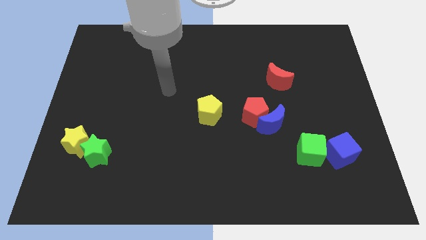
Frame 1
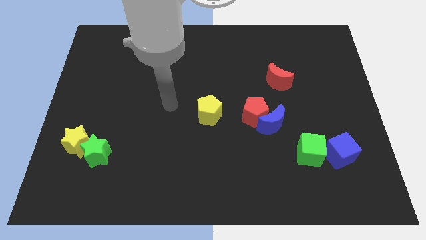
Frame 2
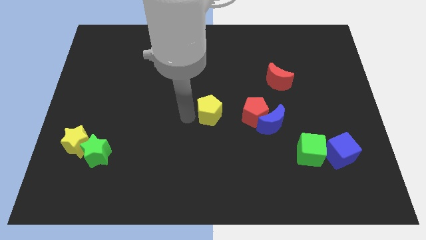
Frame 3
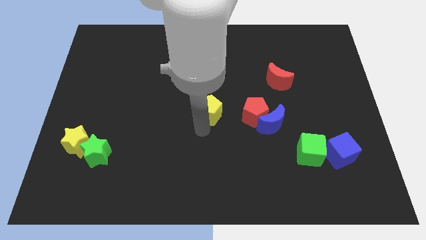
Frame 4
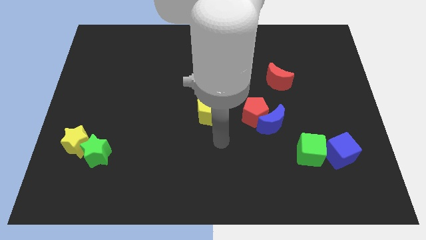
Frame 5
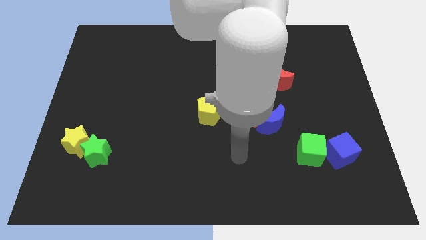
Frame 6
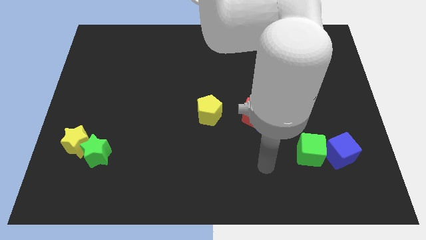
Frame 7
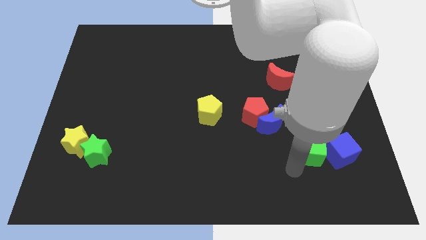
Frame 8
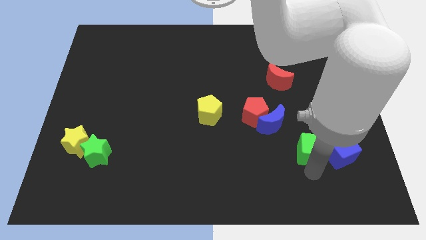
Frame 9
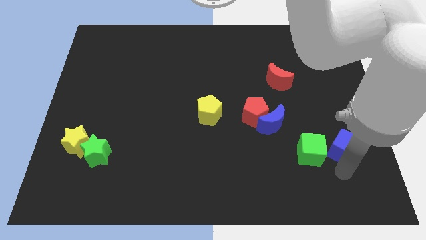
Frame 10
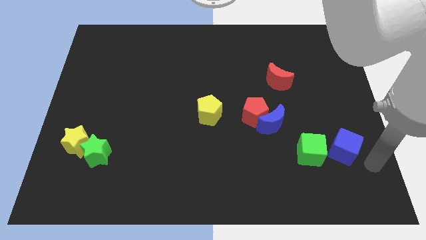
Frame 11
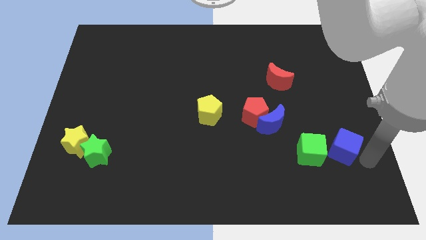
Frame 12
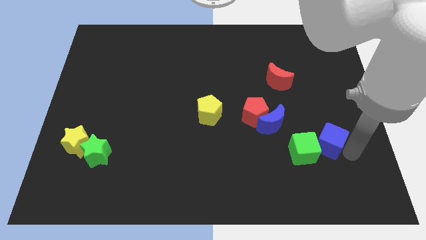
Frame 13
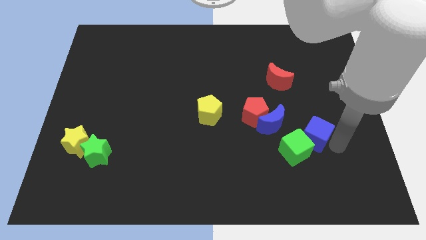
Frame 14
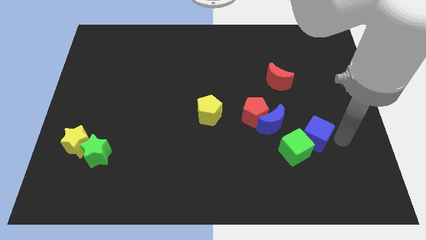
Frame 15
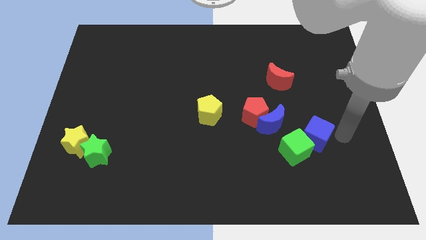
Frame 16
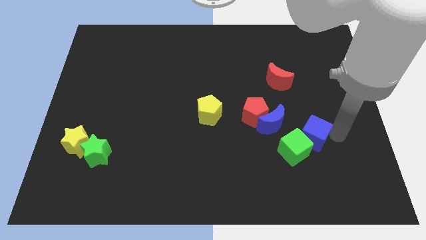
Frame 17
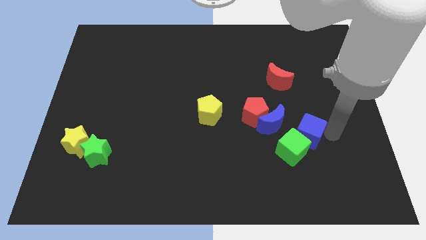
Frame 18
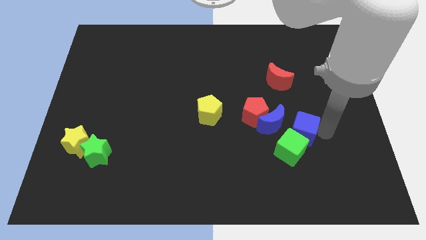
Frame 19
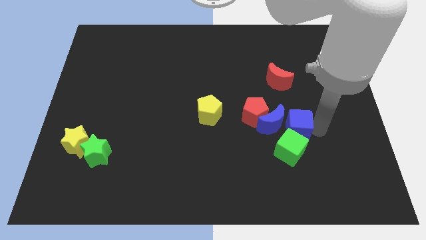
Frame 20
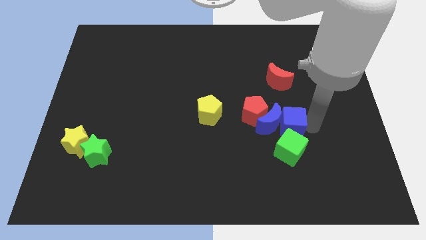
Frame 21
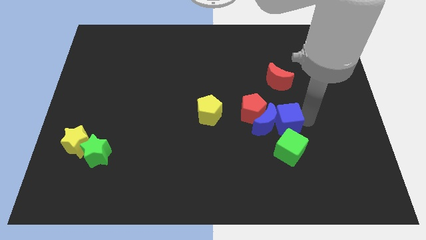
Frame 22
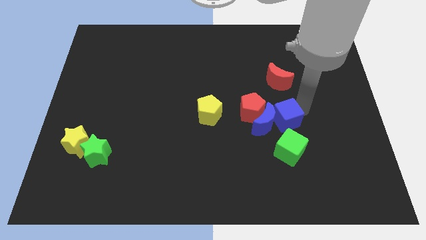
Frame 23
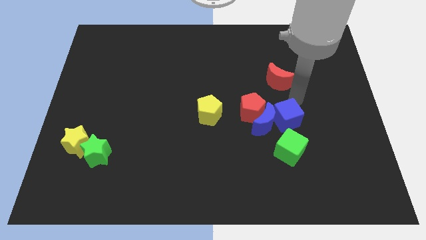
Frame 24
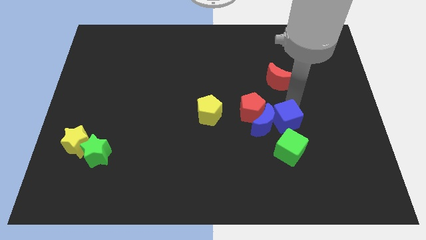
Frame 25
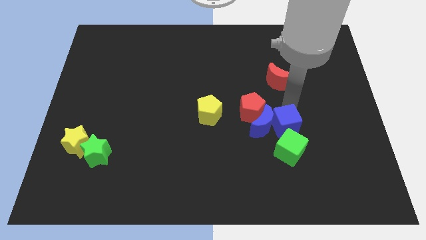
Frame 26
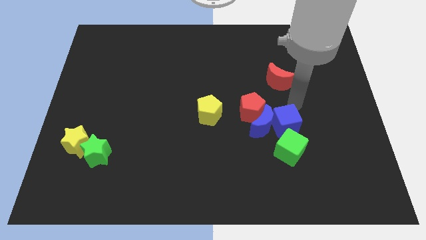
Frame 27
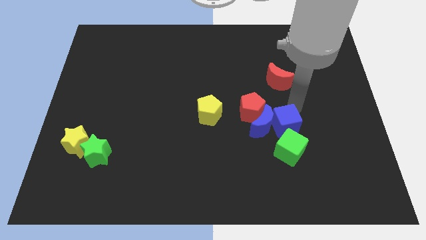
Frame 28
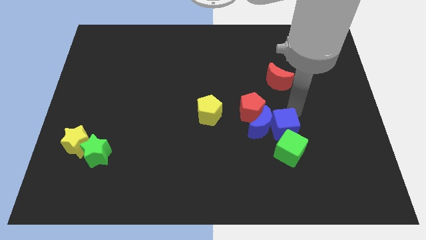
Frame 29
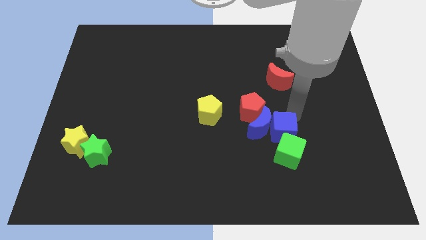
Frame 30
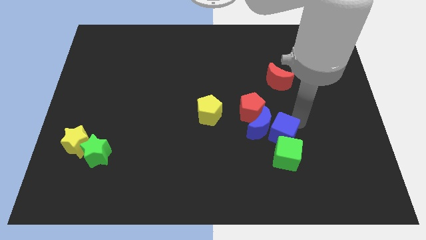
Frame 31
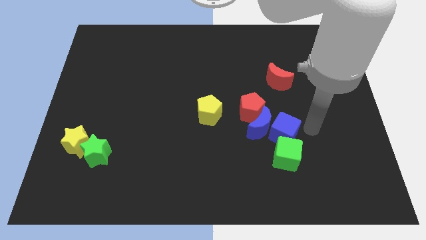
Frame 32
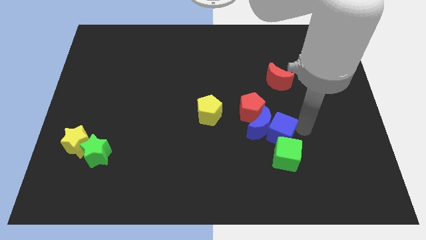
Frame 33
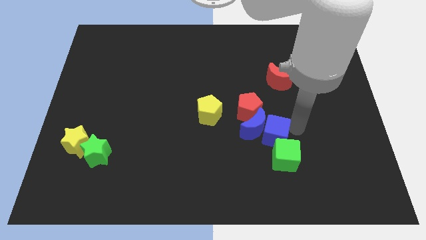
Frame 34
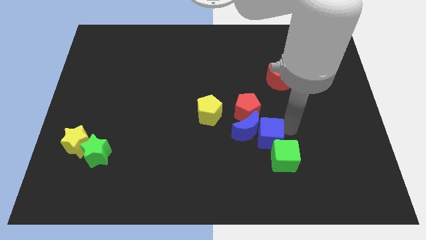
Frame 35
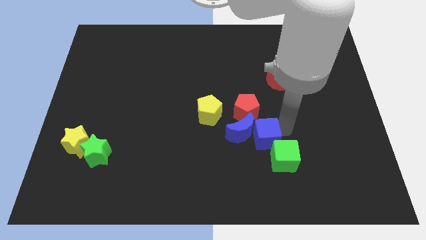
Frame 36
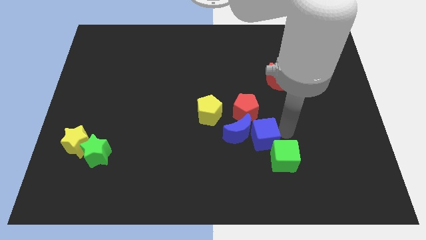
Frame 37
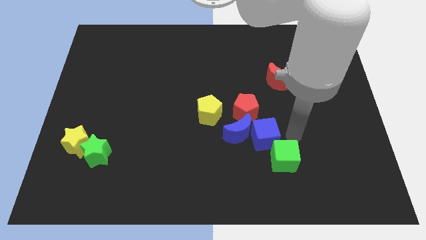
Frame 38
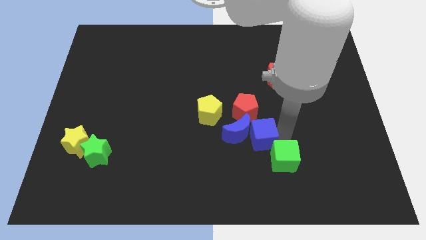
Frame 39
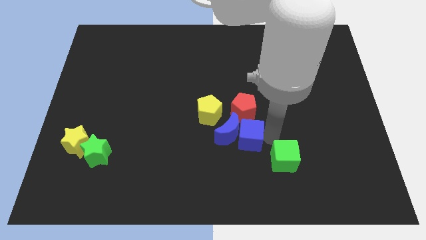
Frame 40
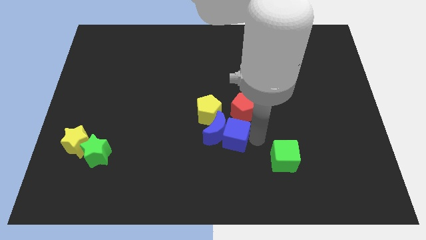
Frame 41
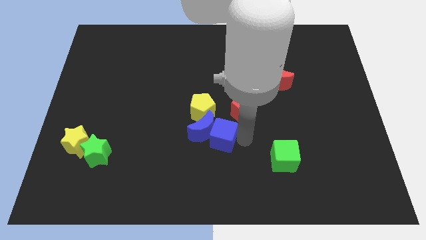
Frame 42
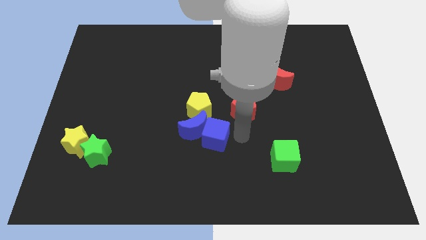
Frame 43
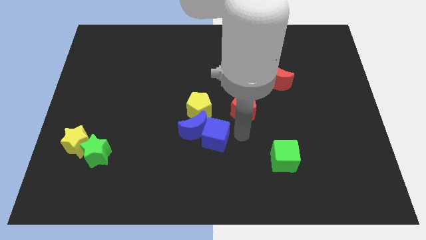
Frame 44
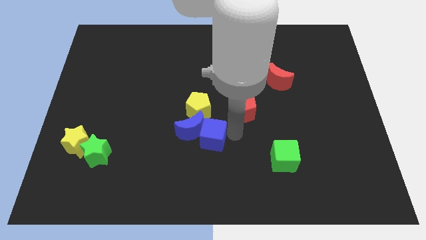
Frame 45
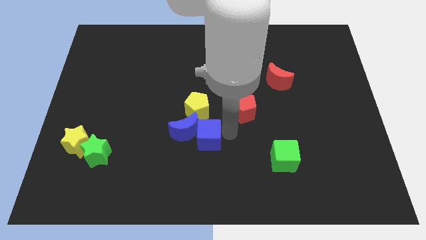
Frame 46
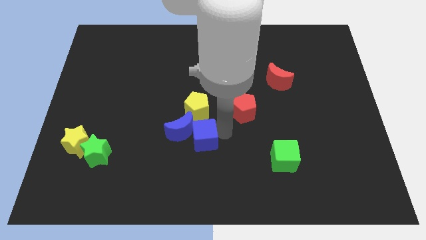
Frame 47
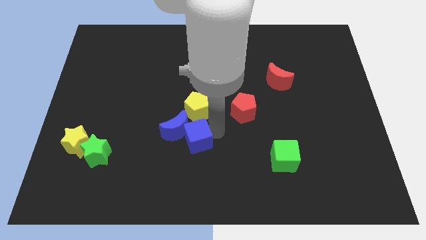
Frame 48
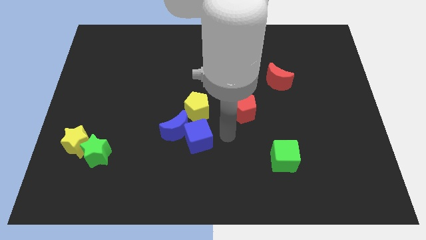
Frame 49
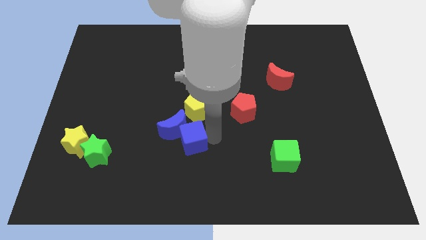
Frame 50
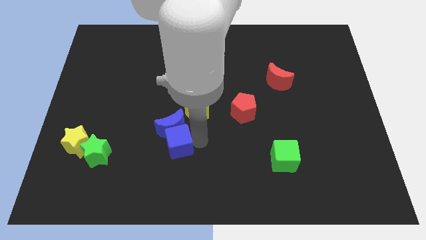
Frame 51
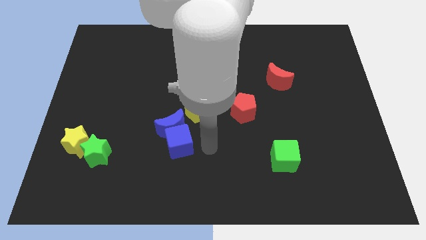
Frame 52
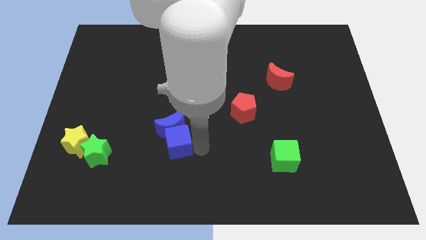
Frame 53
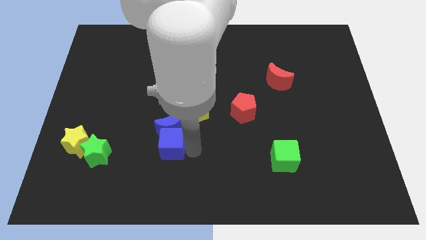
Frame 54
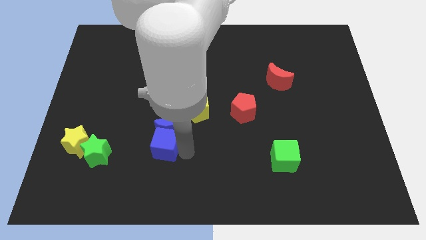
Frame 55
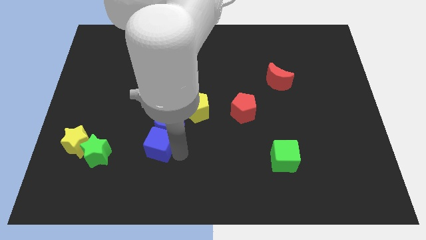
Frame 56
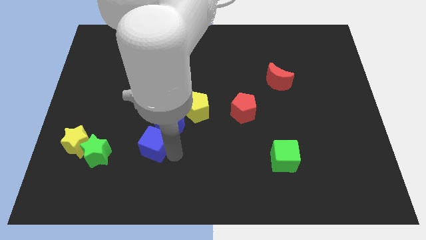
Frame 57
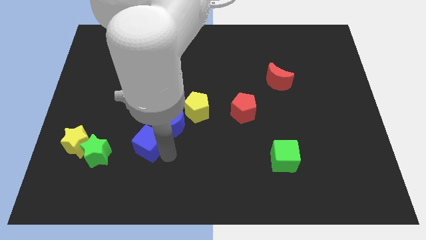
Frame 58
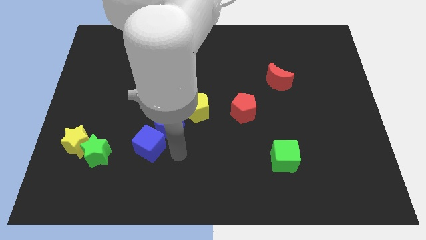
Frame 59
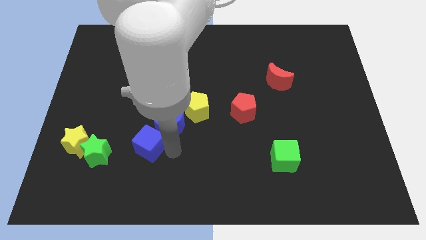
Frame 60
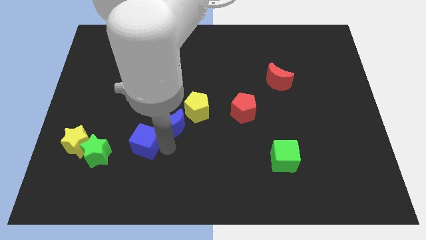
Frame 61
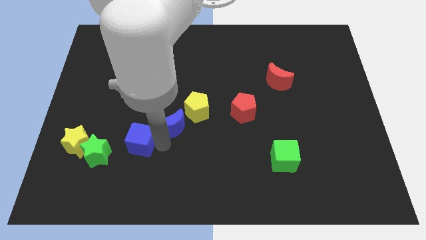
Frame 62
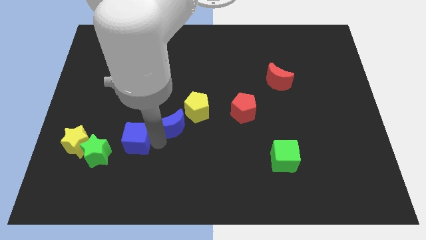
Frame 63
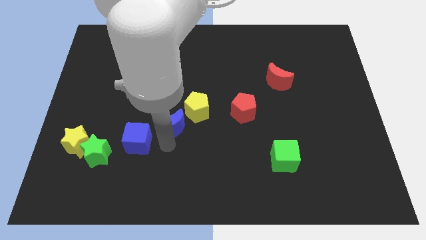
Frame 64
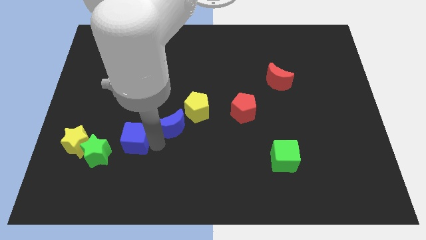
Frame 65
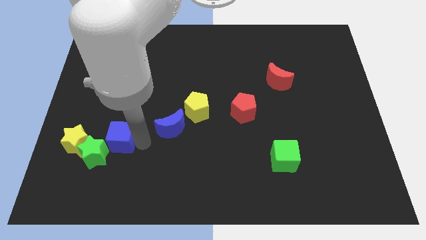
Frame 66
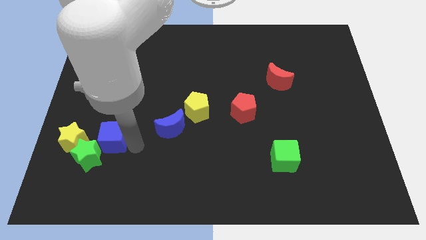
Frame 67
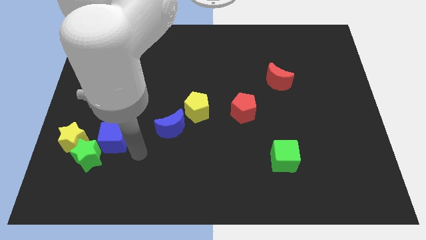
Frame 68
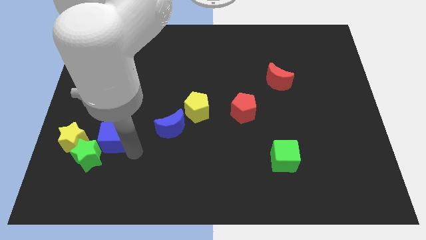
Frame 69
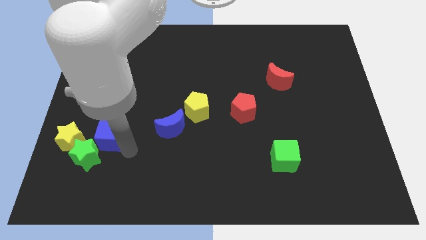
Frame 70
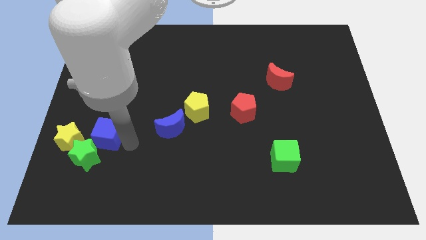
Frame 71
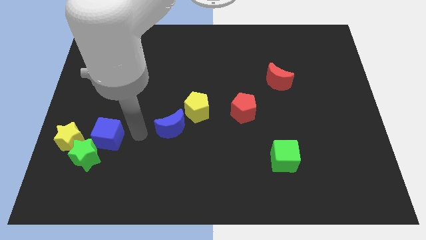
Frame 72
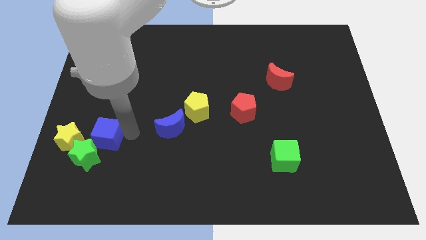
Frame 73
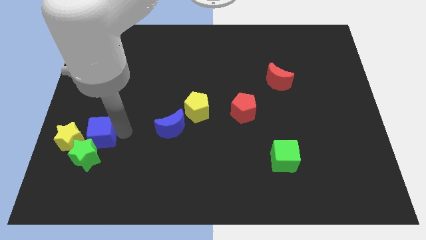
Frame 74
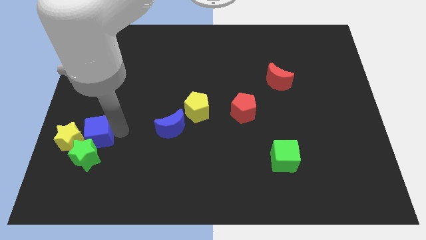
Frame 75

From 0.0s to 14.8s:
move the blue cube next to the yellow star
